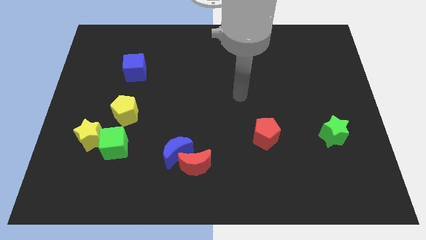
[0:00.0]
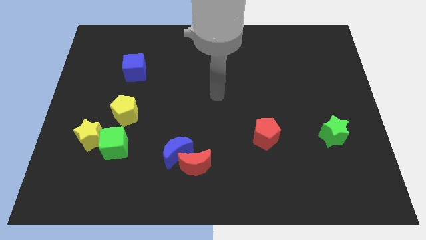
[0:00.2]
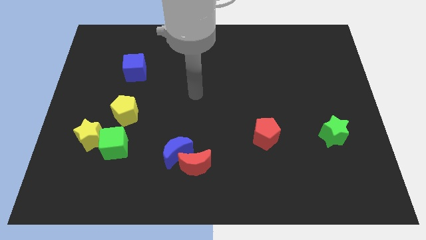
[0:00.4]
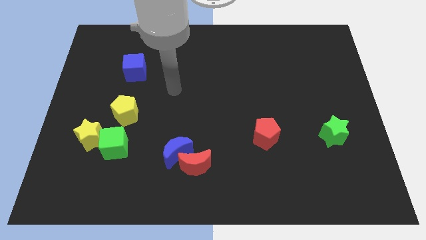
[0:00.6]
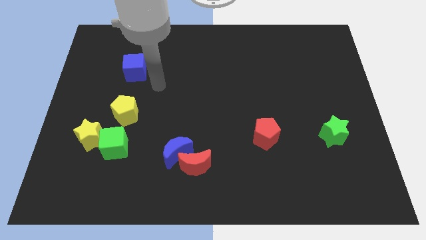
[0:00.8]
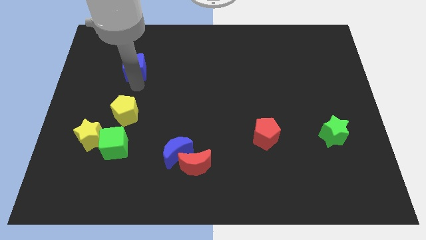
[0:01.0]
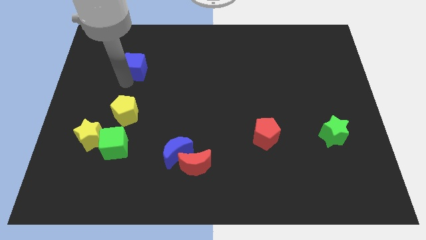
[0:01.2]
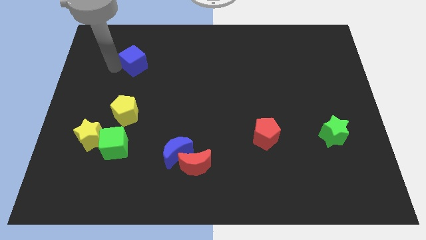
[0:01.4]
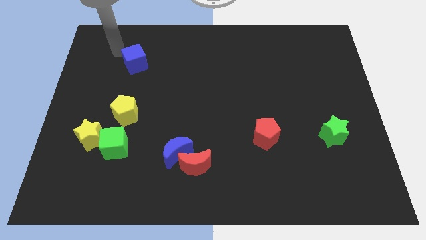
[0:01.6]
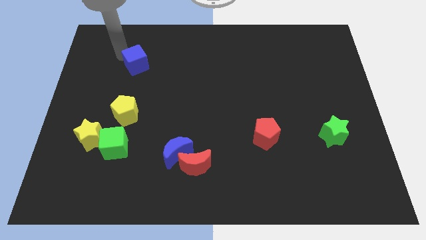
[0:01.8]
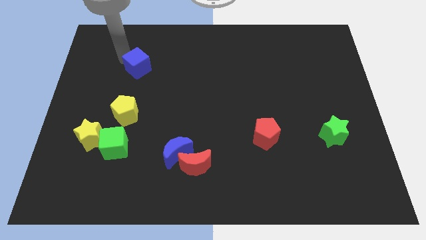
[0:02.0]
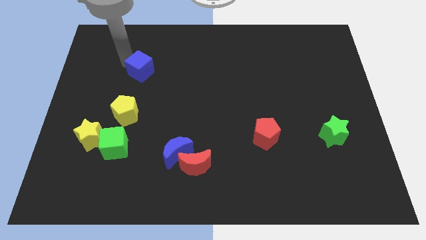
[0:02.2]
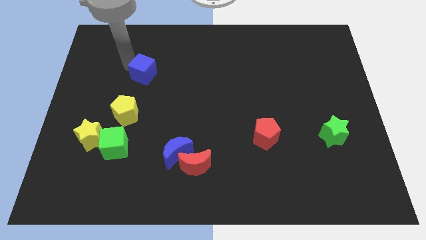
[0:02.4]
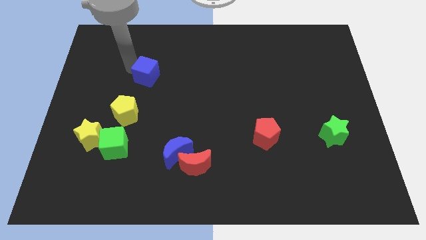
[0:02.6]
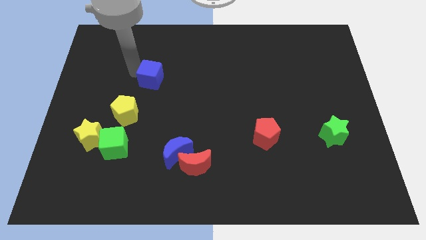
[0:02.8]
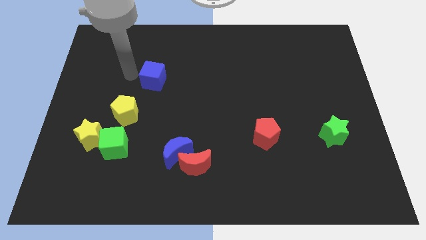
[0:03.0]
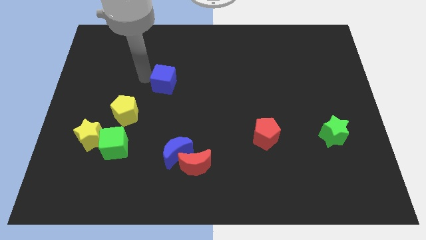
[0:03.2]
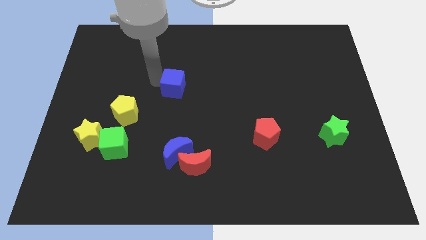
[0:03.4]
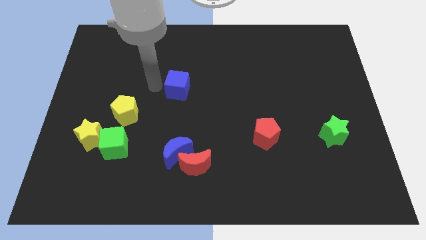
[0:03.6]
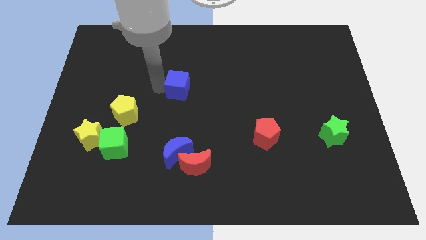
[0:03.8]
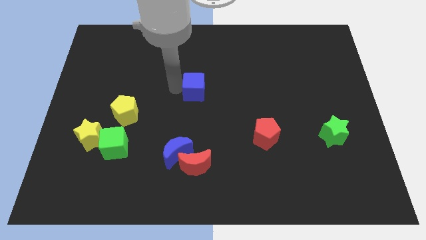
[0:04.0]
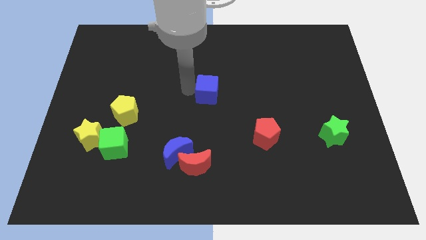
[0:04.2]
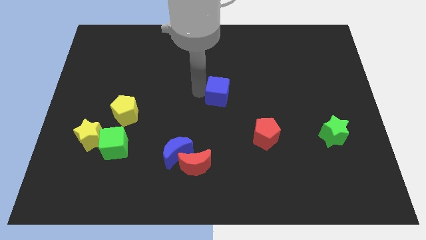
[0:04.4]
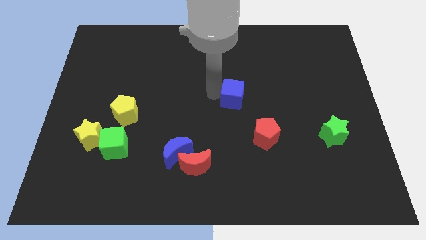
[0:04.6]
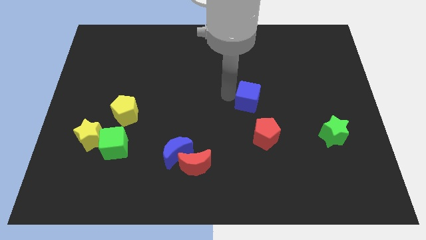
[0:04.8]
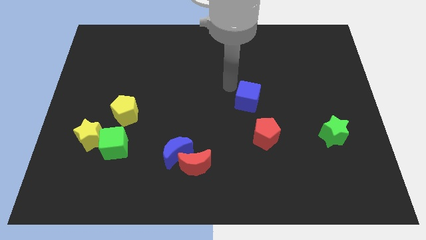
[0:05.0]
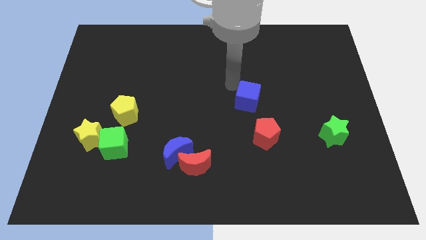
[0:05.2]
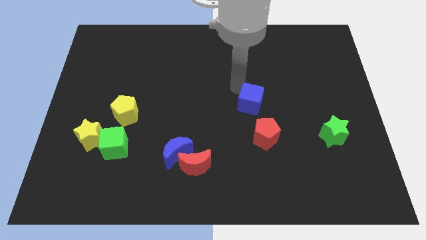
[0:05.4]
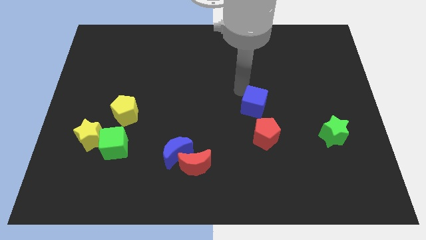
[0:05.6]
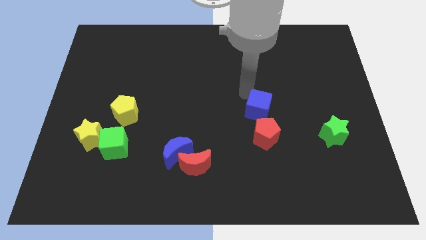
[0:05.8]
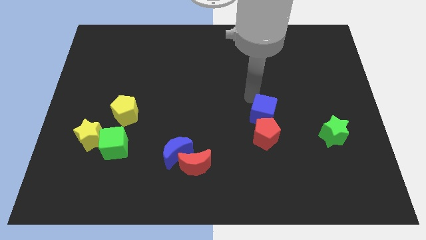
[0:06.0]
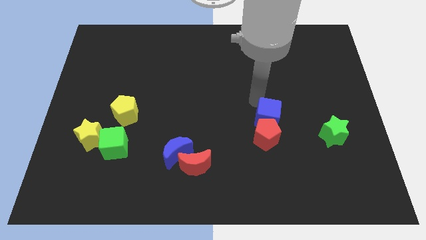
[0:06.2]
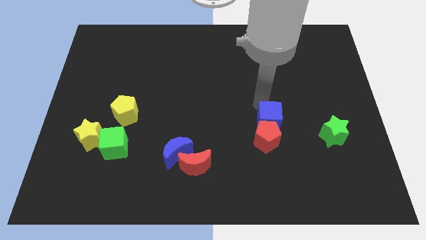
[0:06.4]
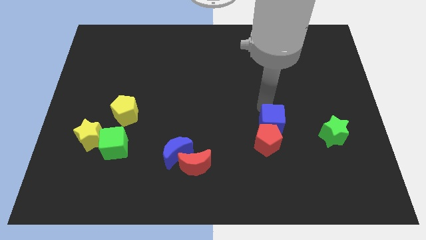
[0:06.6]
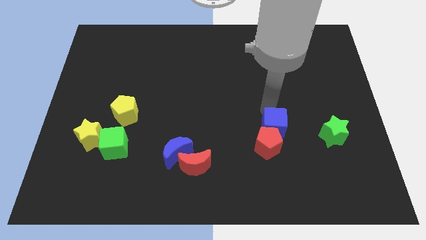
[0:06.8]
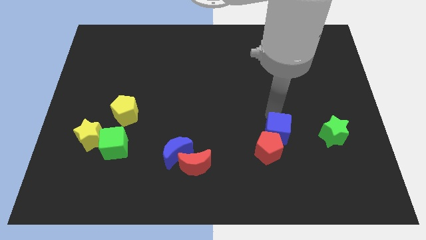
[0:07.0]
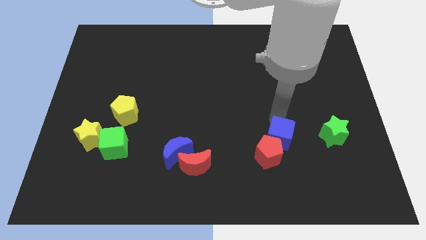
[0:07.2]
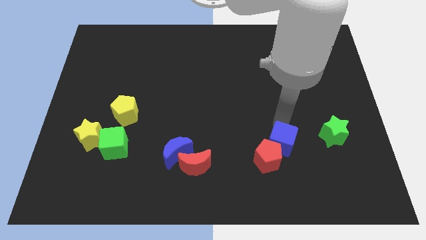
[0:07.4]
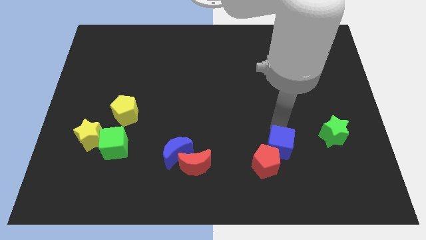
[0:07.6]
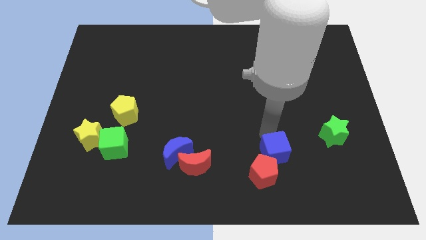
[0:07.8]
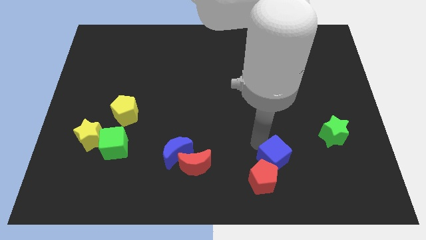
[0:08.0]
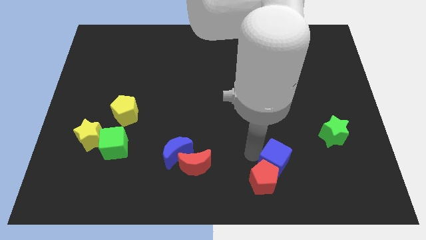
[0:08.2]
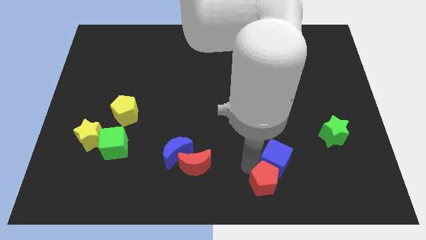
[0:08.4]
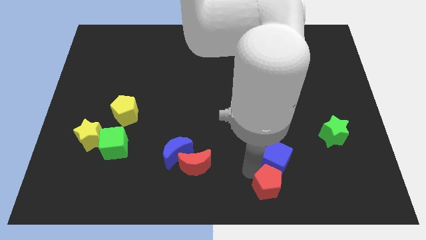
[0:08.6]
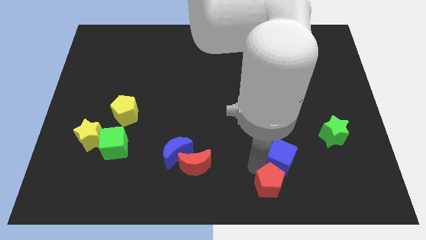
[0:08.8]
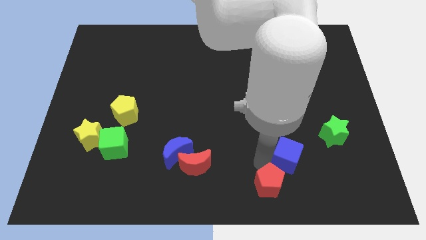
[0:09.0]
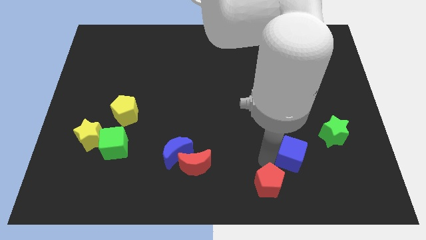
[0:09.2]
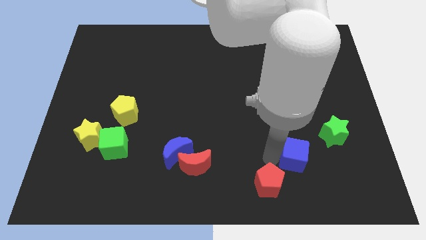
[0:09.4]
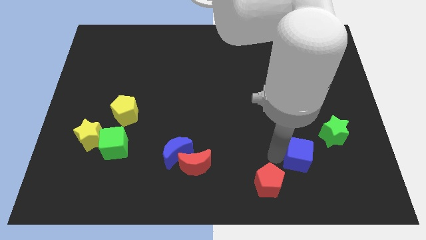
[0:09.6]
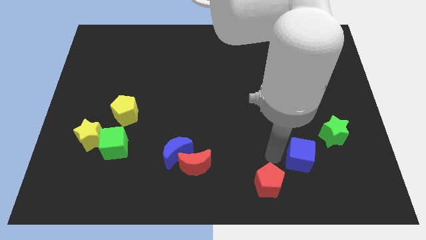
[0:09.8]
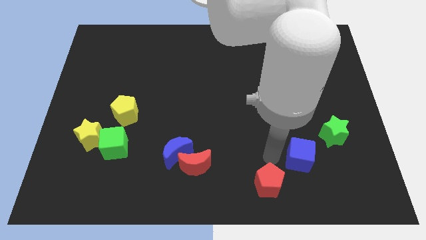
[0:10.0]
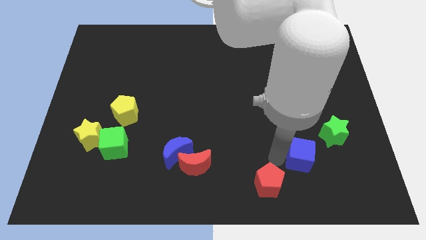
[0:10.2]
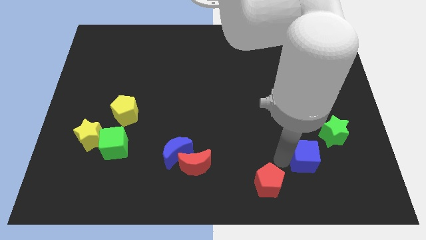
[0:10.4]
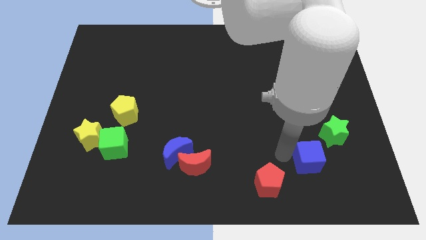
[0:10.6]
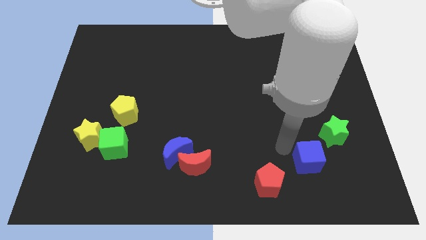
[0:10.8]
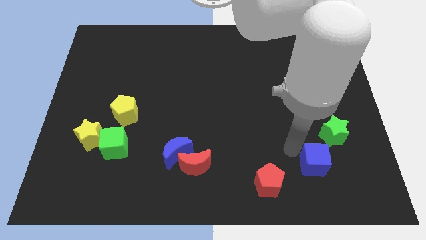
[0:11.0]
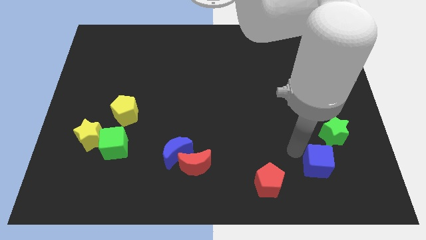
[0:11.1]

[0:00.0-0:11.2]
move the blue cube below the green star

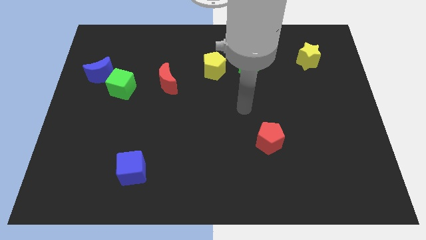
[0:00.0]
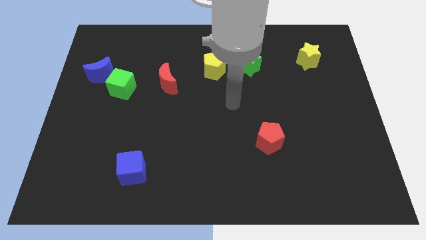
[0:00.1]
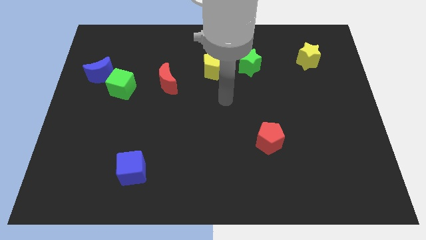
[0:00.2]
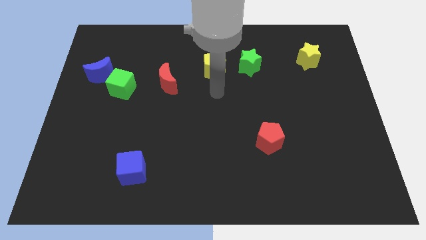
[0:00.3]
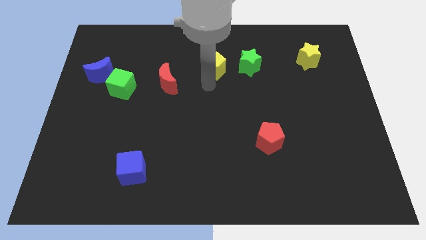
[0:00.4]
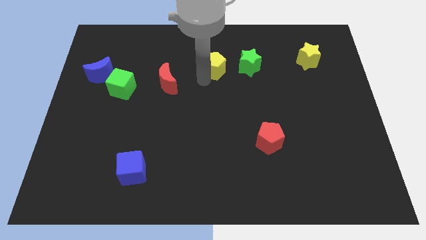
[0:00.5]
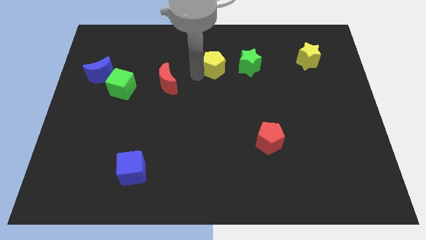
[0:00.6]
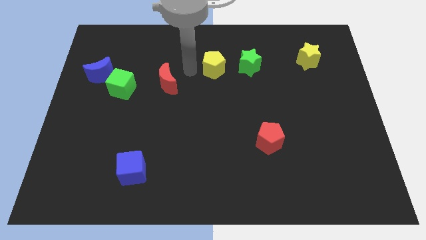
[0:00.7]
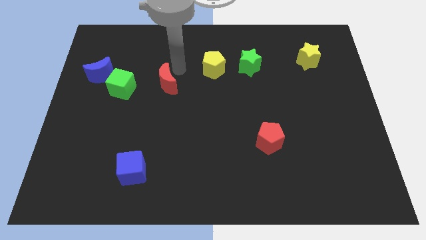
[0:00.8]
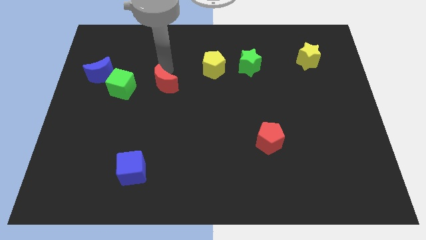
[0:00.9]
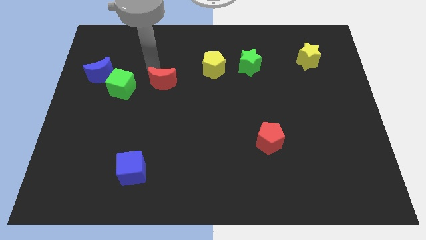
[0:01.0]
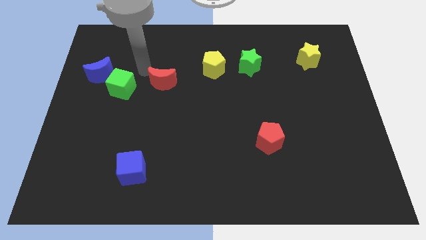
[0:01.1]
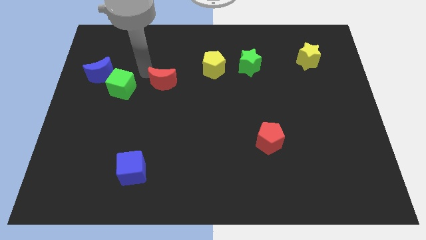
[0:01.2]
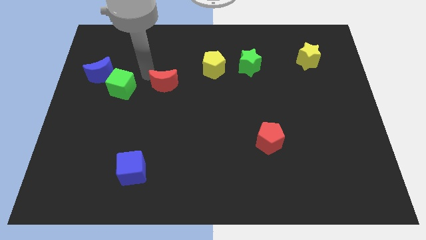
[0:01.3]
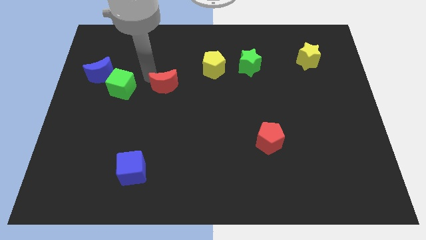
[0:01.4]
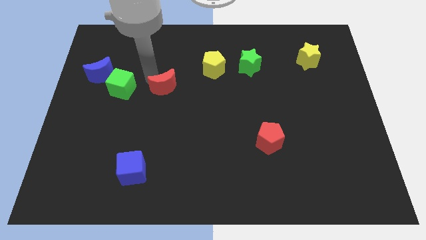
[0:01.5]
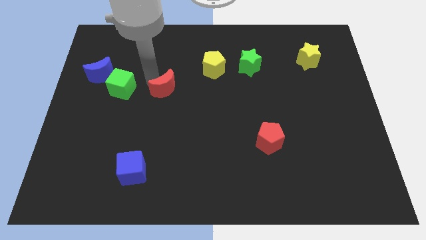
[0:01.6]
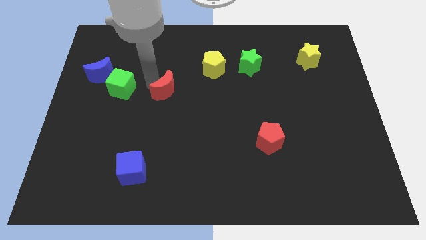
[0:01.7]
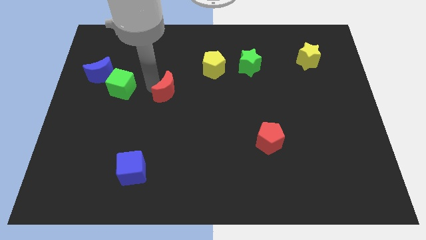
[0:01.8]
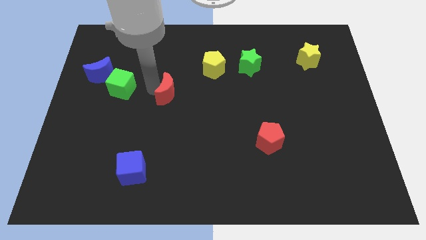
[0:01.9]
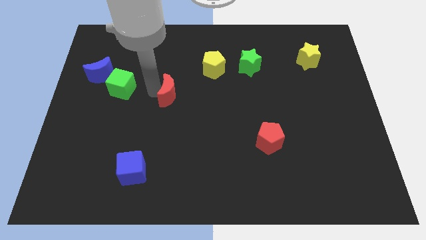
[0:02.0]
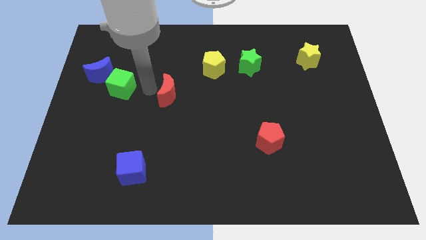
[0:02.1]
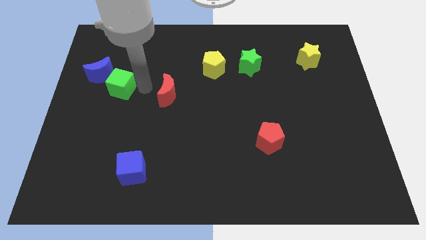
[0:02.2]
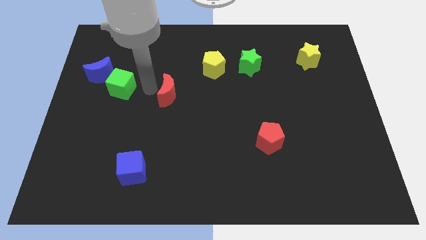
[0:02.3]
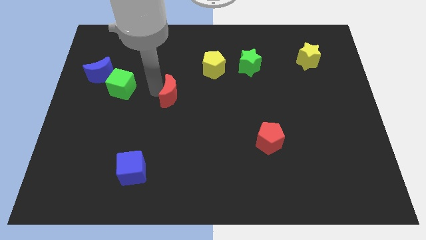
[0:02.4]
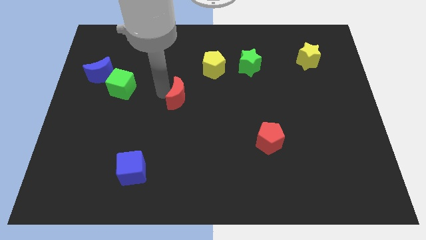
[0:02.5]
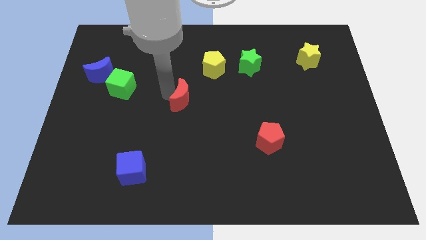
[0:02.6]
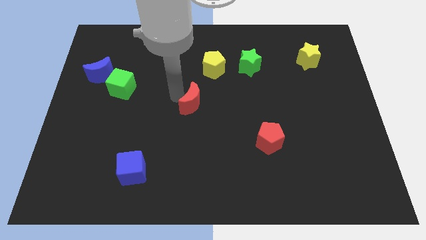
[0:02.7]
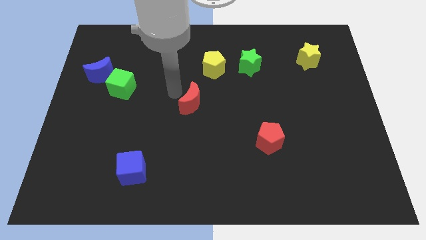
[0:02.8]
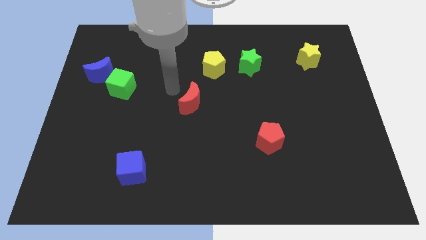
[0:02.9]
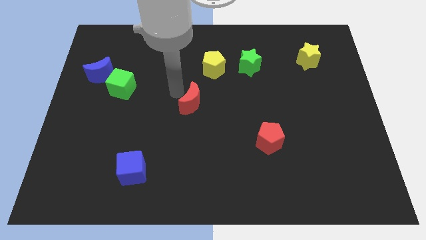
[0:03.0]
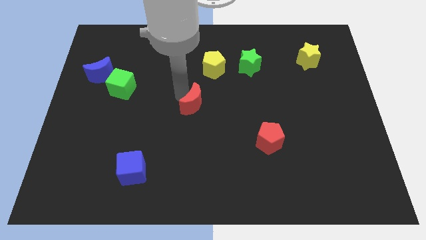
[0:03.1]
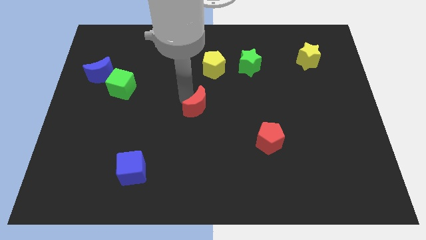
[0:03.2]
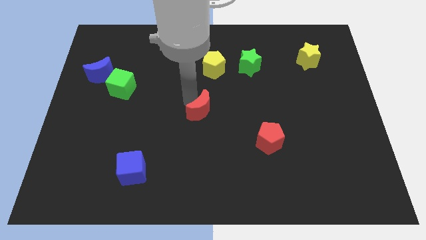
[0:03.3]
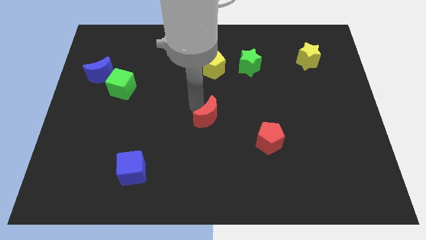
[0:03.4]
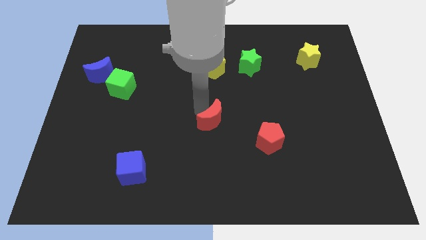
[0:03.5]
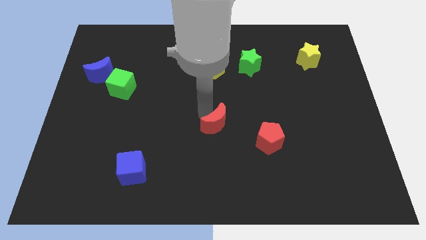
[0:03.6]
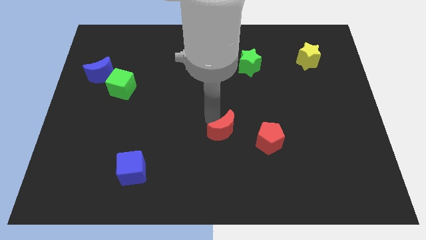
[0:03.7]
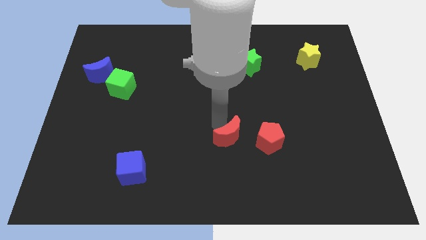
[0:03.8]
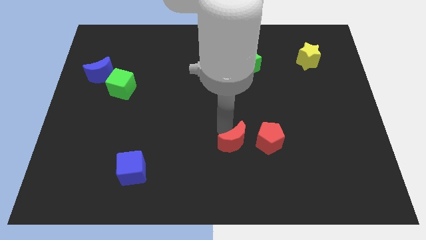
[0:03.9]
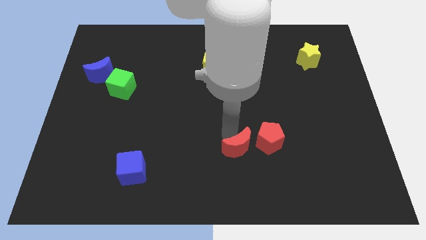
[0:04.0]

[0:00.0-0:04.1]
push the red moon to the bottom left of the red pentagon
